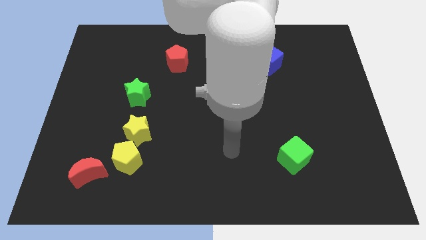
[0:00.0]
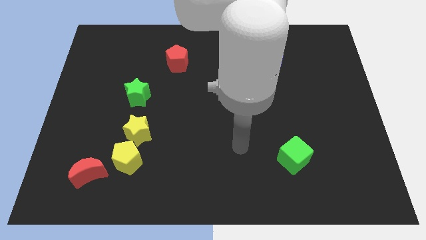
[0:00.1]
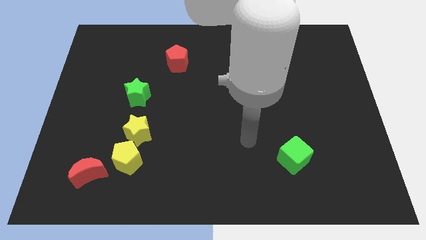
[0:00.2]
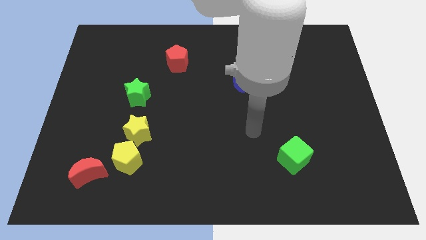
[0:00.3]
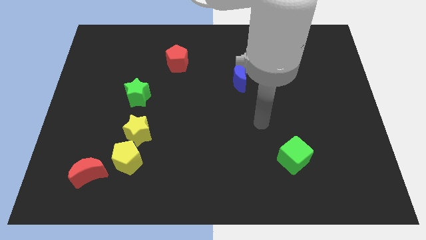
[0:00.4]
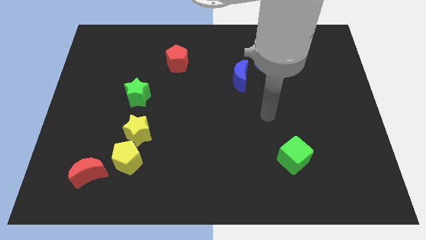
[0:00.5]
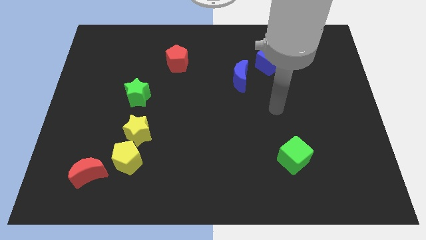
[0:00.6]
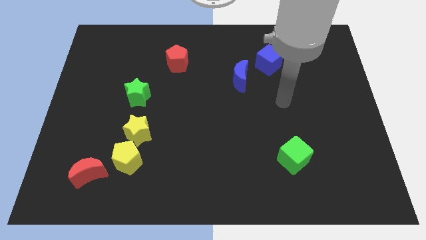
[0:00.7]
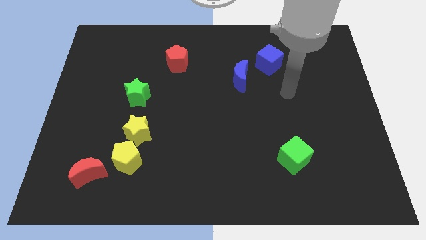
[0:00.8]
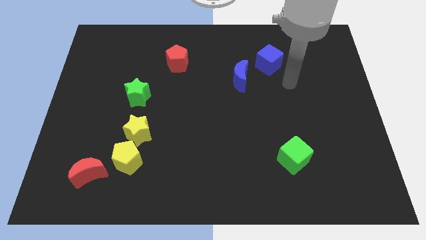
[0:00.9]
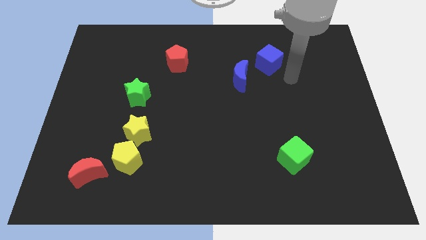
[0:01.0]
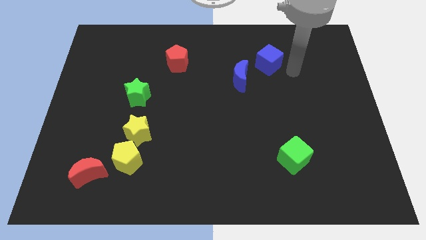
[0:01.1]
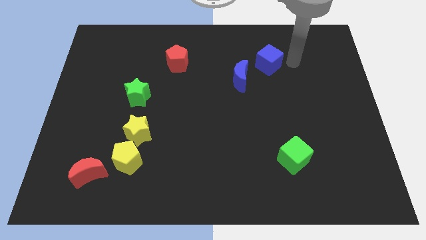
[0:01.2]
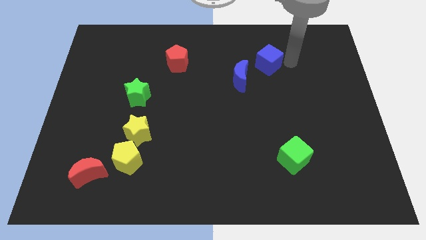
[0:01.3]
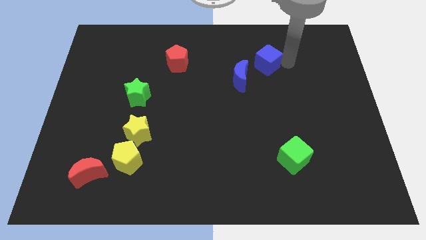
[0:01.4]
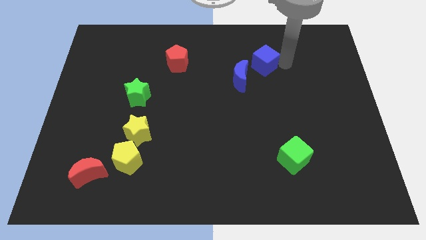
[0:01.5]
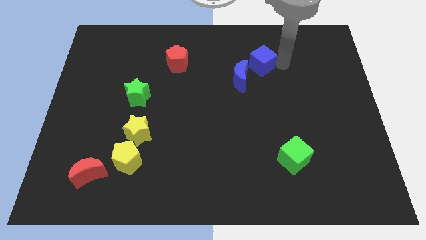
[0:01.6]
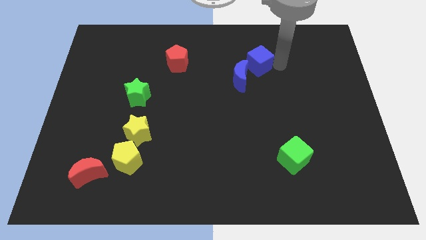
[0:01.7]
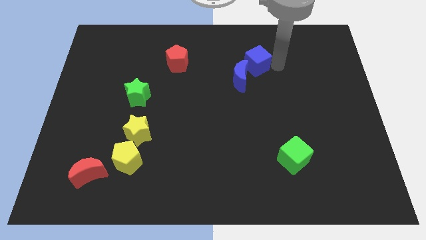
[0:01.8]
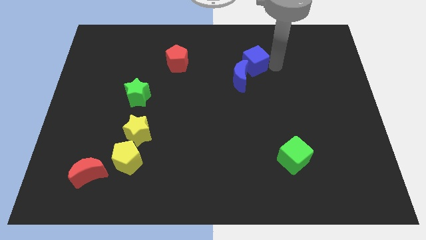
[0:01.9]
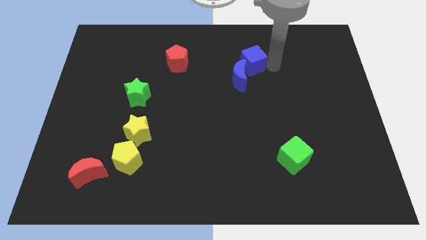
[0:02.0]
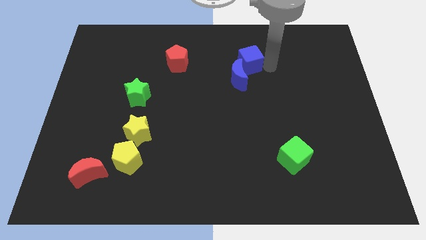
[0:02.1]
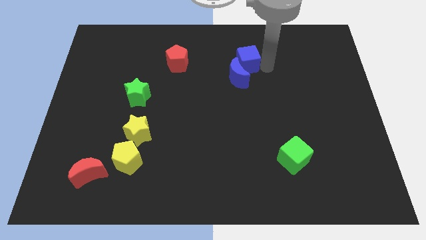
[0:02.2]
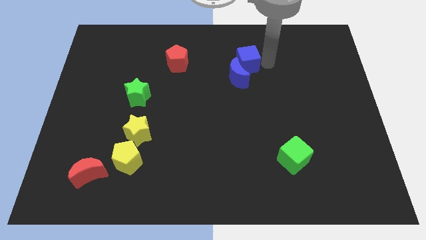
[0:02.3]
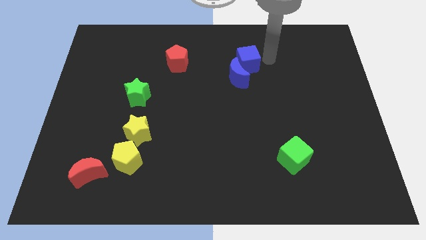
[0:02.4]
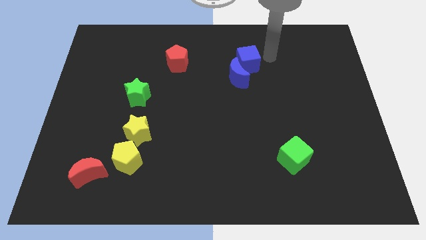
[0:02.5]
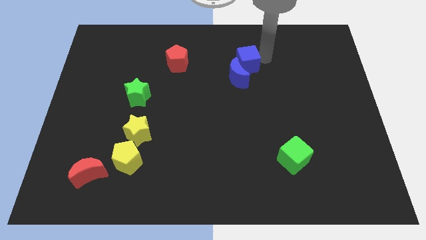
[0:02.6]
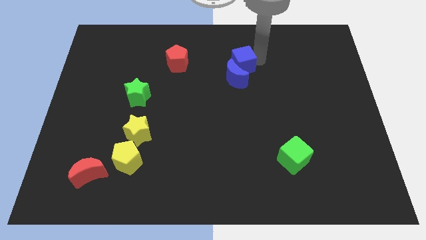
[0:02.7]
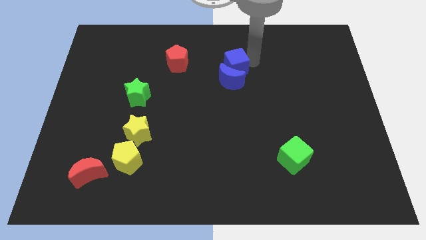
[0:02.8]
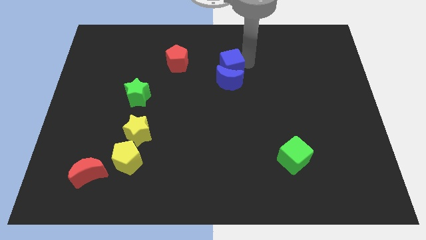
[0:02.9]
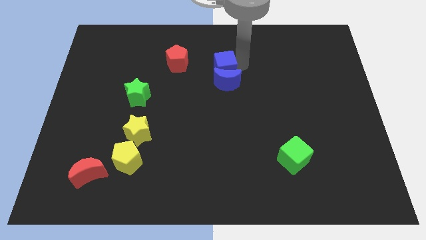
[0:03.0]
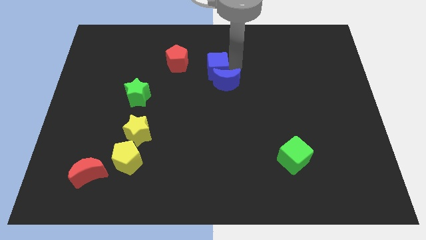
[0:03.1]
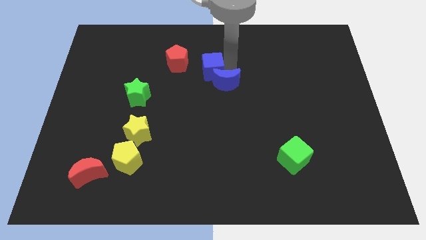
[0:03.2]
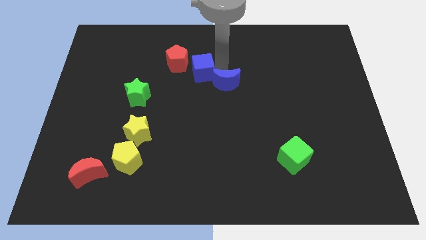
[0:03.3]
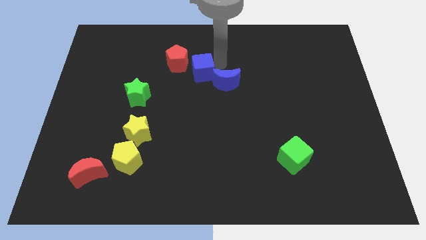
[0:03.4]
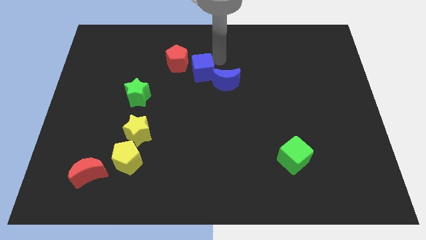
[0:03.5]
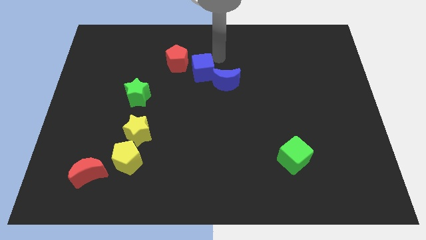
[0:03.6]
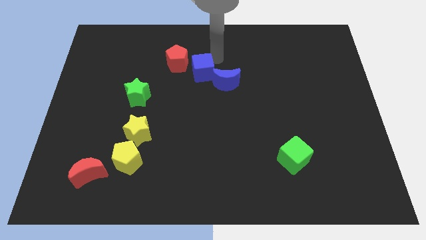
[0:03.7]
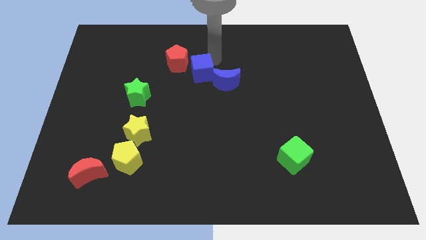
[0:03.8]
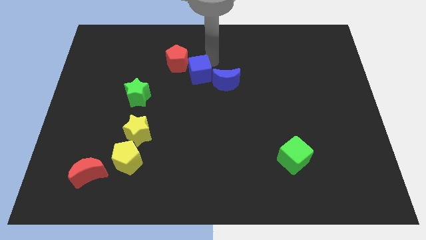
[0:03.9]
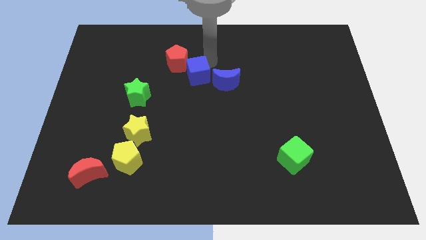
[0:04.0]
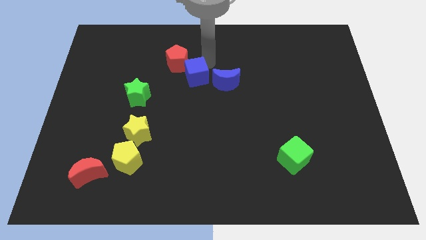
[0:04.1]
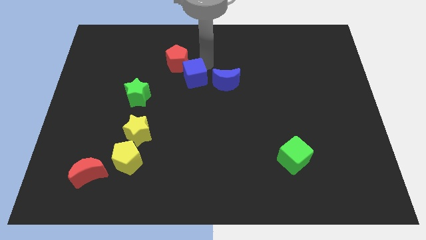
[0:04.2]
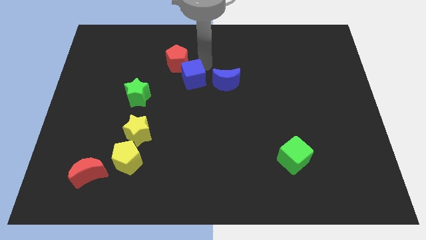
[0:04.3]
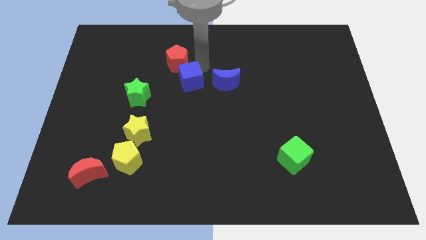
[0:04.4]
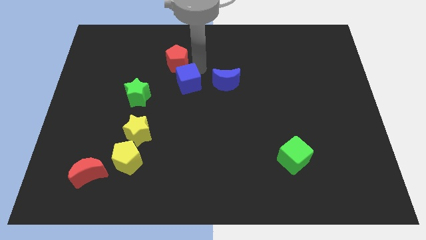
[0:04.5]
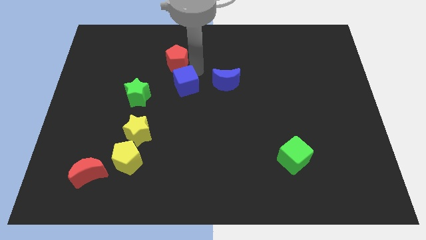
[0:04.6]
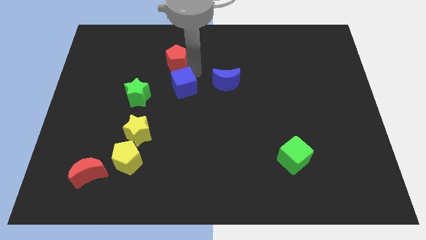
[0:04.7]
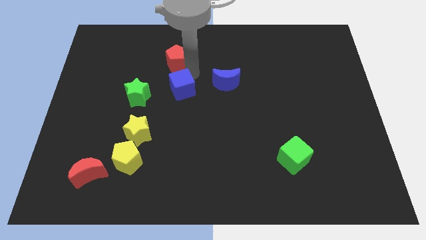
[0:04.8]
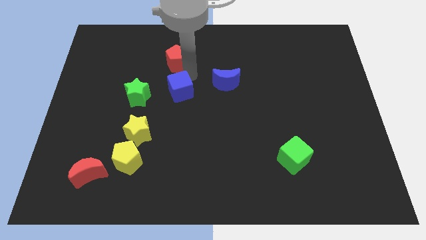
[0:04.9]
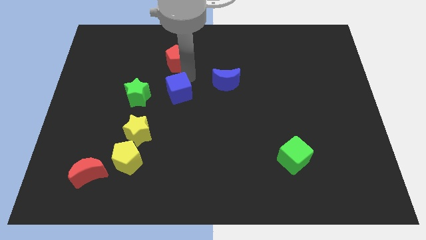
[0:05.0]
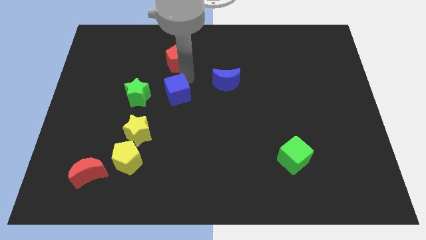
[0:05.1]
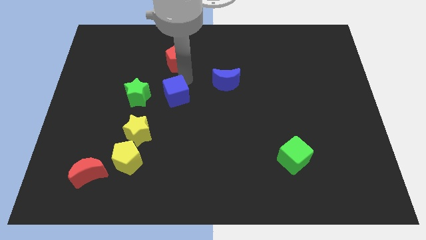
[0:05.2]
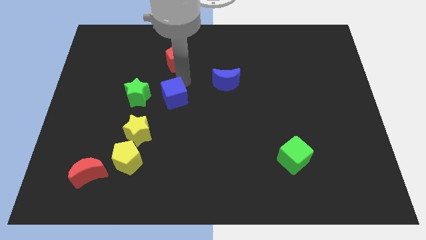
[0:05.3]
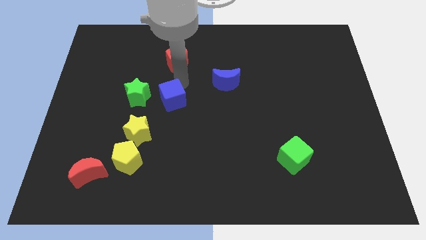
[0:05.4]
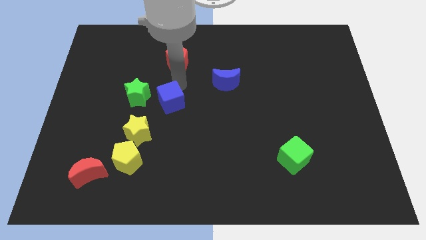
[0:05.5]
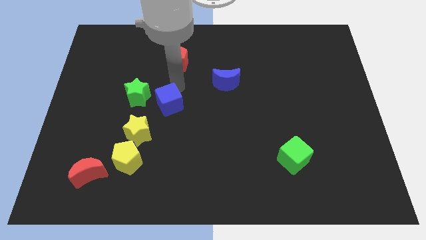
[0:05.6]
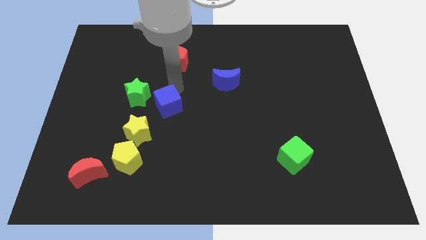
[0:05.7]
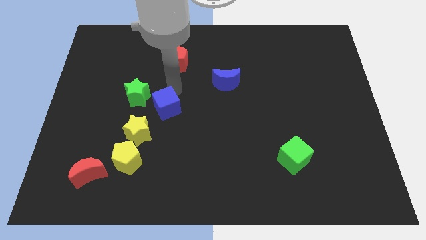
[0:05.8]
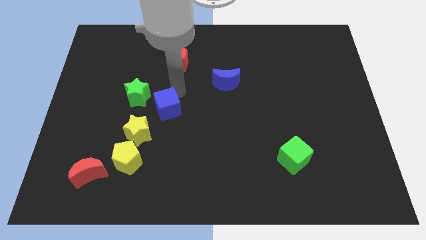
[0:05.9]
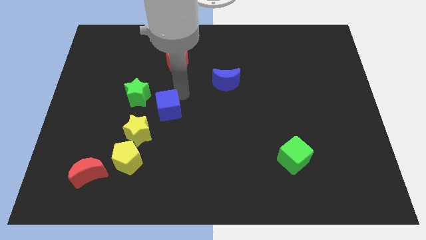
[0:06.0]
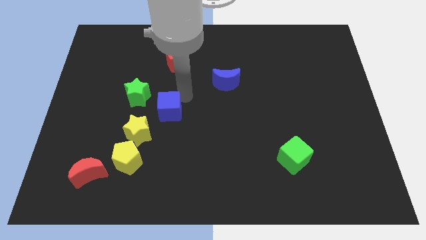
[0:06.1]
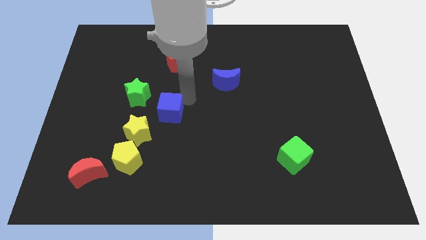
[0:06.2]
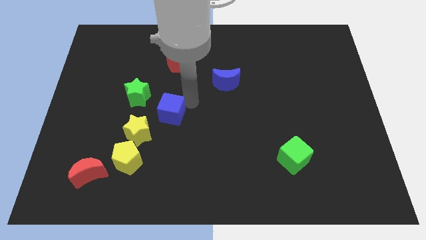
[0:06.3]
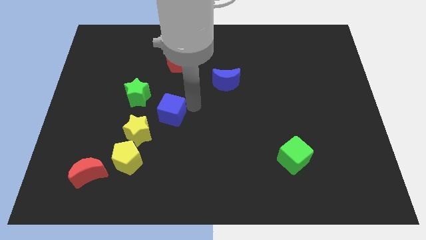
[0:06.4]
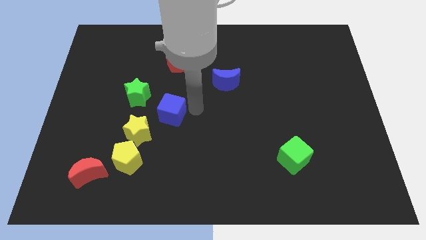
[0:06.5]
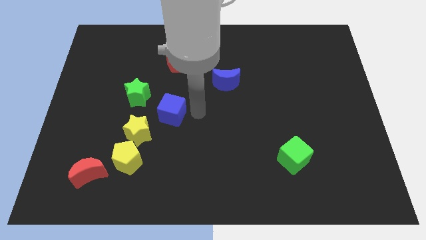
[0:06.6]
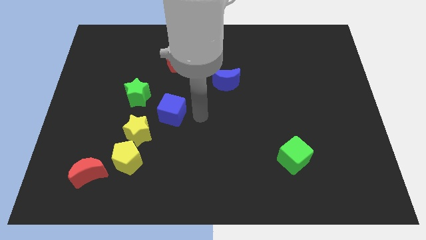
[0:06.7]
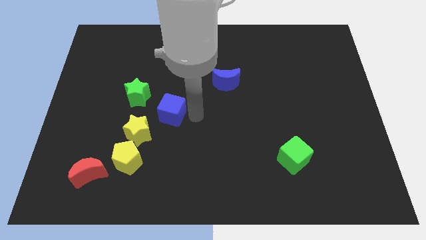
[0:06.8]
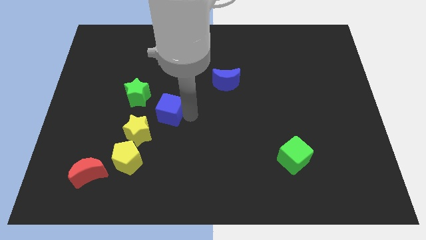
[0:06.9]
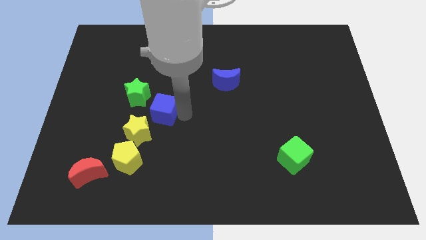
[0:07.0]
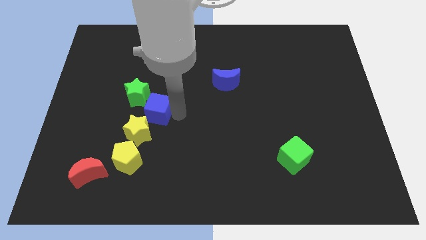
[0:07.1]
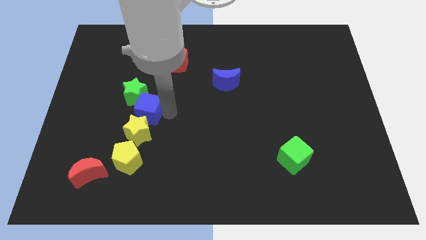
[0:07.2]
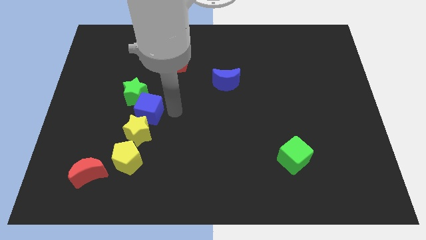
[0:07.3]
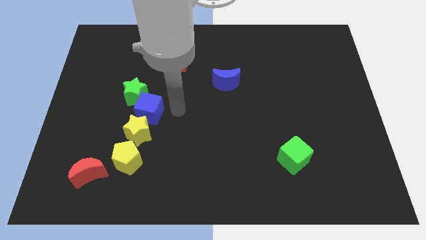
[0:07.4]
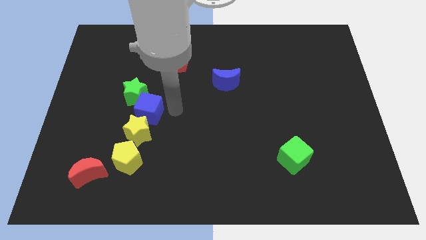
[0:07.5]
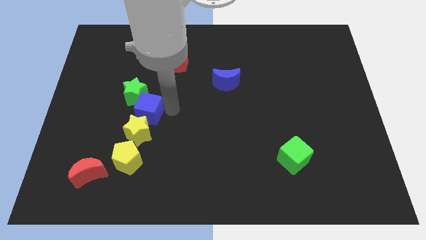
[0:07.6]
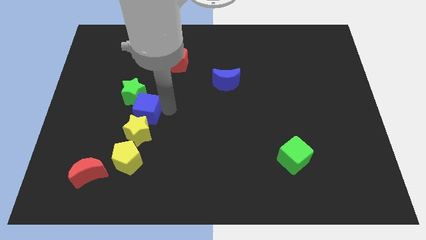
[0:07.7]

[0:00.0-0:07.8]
push the blue cube to the top left side of the yellow star
